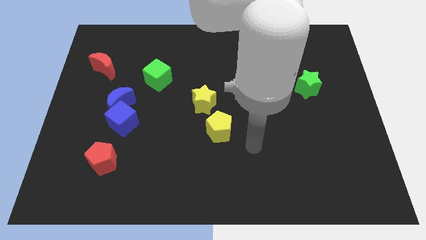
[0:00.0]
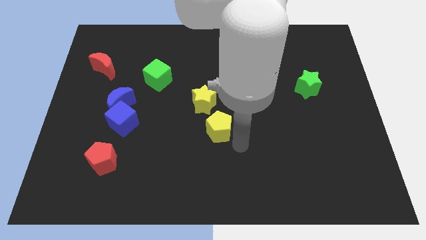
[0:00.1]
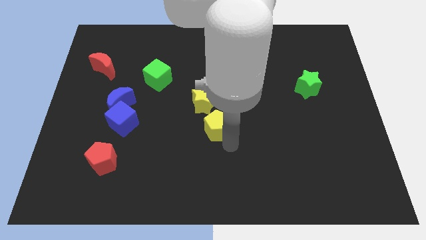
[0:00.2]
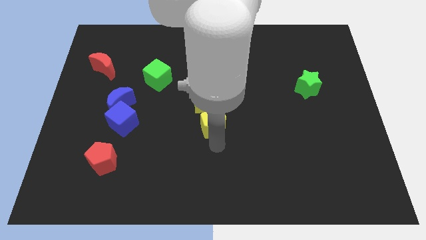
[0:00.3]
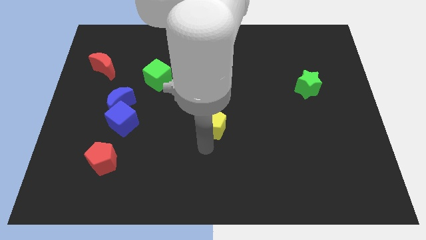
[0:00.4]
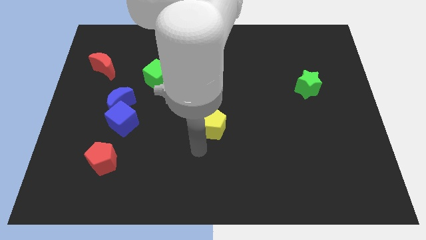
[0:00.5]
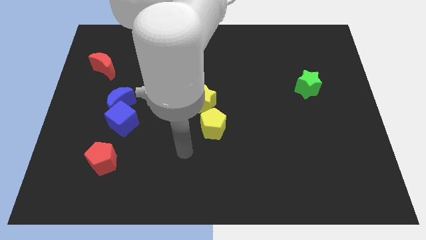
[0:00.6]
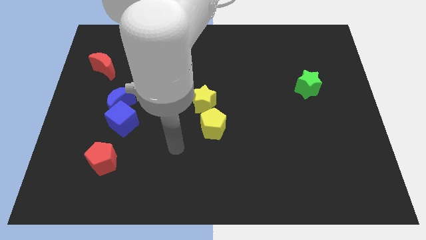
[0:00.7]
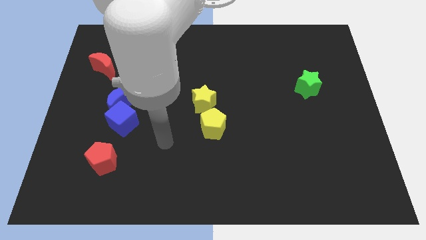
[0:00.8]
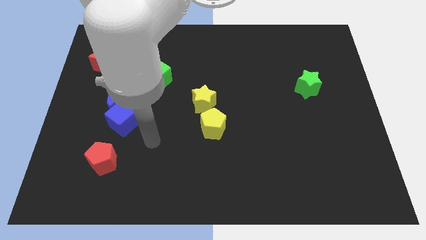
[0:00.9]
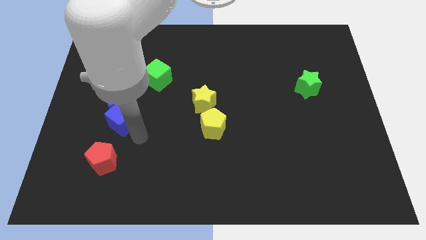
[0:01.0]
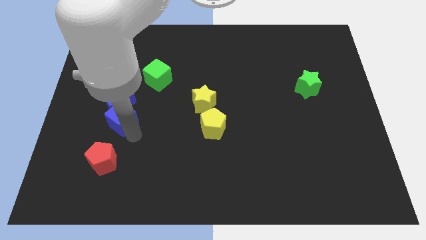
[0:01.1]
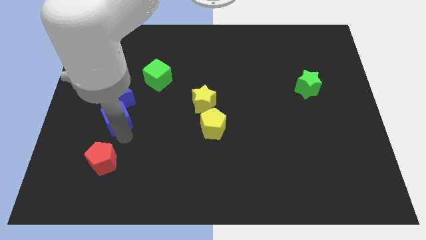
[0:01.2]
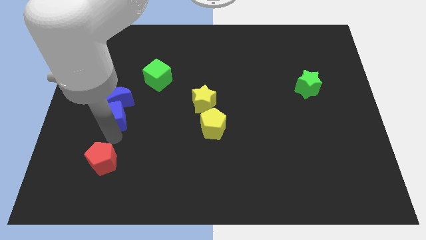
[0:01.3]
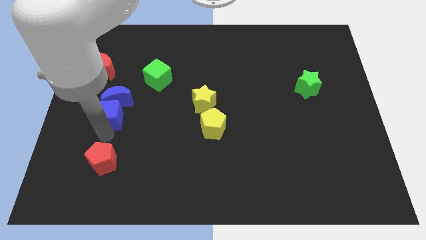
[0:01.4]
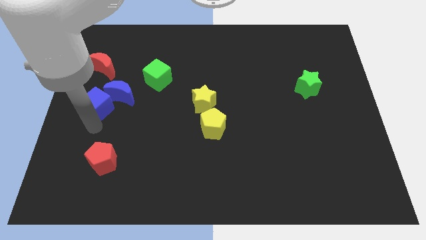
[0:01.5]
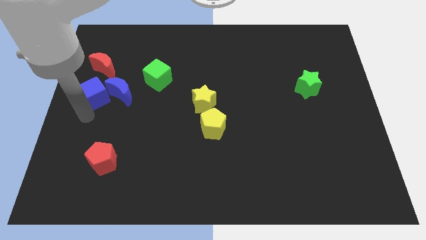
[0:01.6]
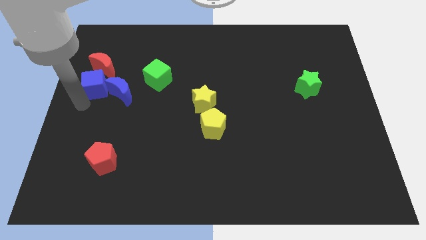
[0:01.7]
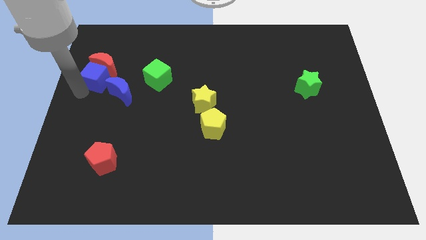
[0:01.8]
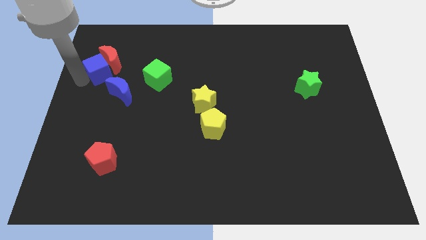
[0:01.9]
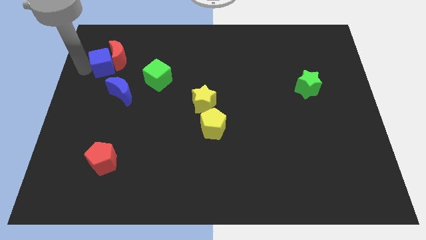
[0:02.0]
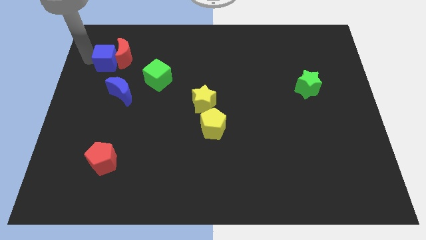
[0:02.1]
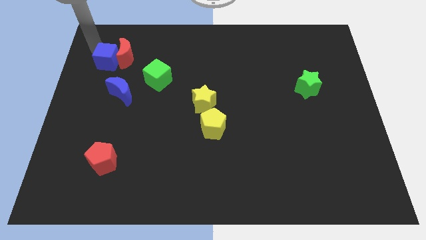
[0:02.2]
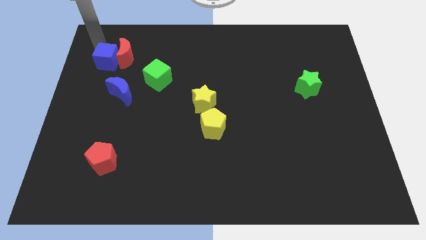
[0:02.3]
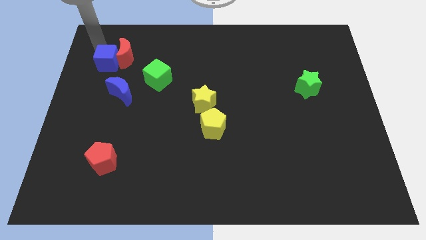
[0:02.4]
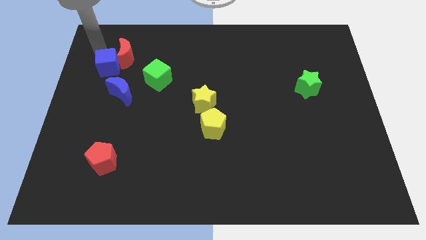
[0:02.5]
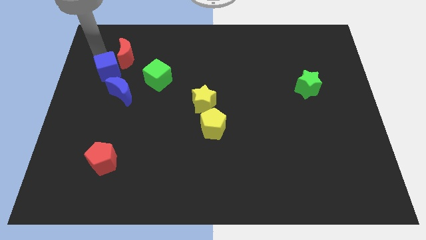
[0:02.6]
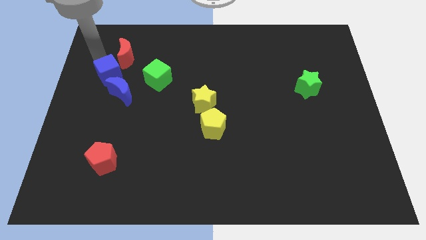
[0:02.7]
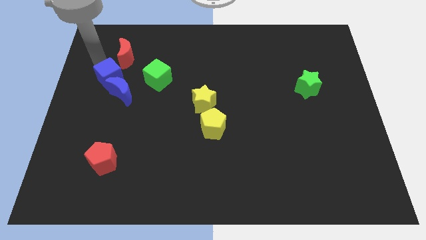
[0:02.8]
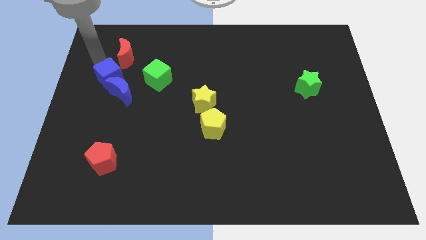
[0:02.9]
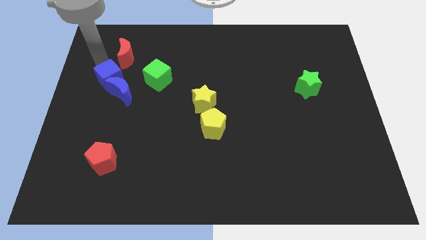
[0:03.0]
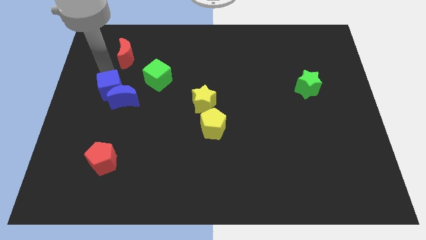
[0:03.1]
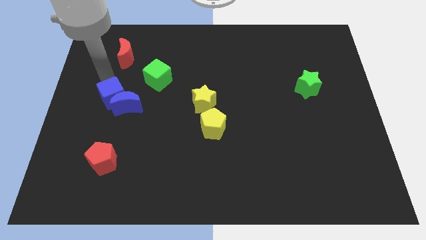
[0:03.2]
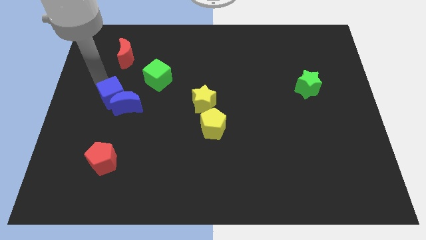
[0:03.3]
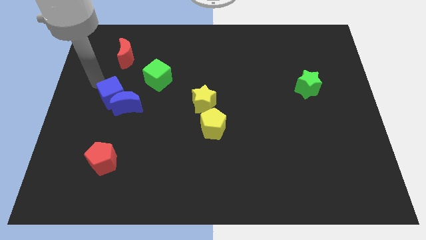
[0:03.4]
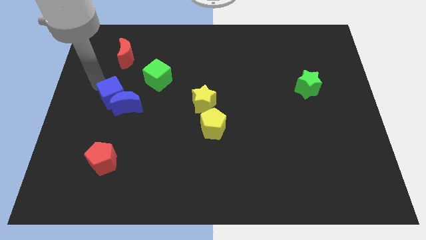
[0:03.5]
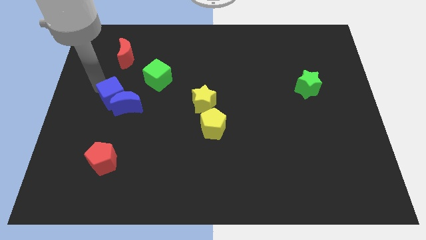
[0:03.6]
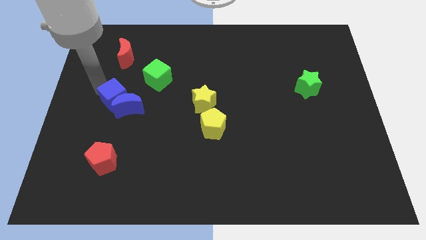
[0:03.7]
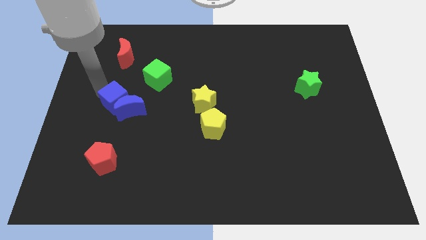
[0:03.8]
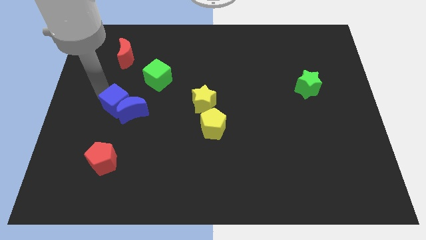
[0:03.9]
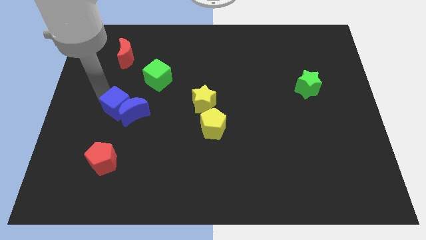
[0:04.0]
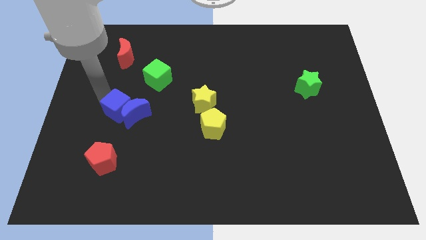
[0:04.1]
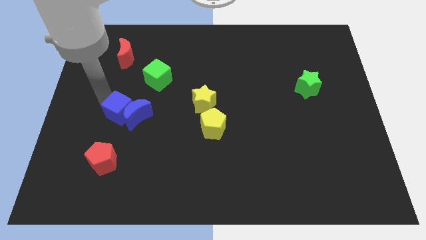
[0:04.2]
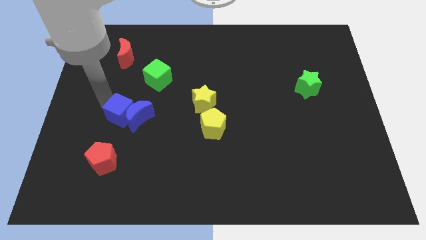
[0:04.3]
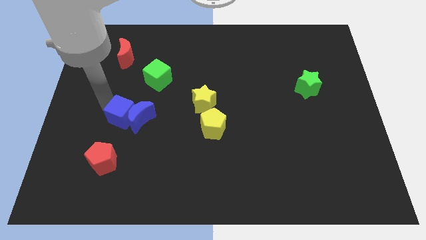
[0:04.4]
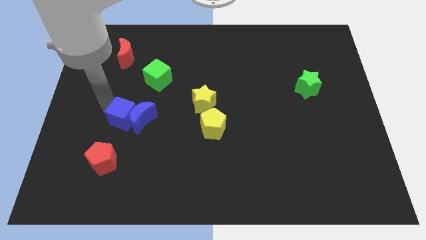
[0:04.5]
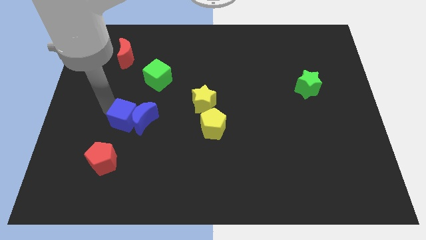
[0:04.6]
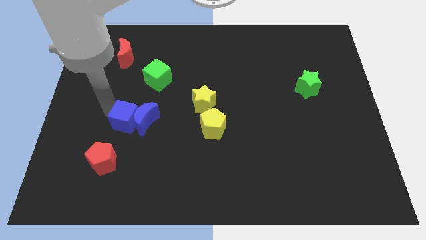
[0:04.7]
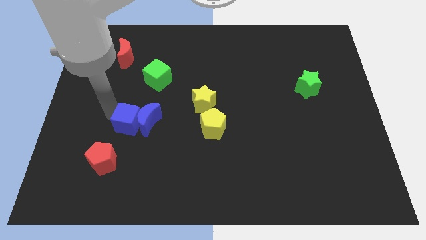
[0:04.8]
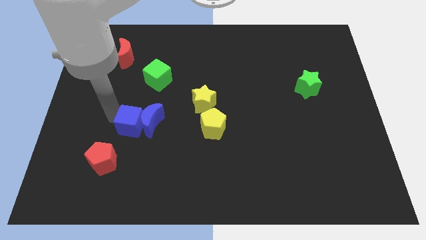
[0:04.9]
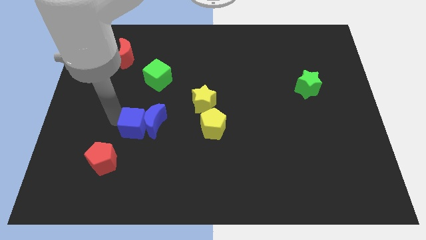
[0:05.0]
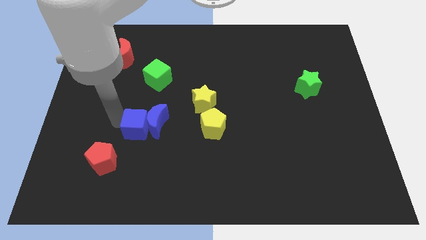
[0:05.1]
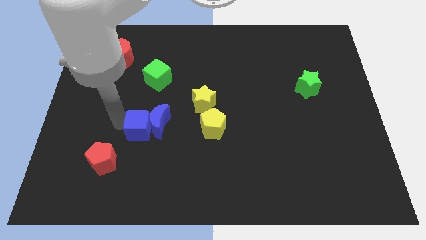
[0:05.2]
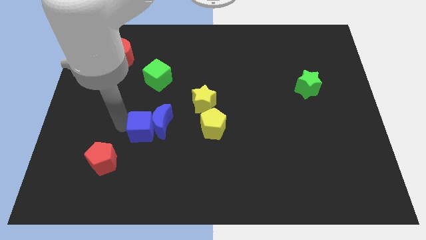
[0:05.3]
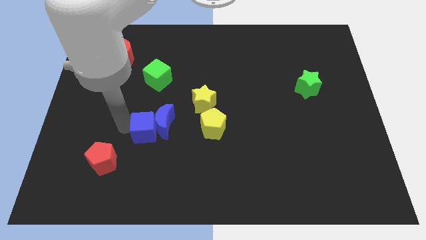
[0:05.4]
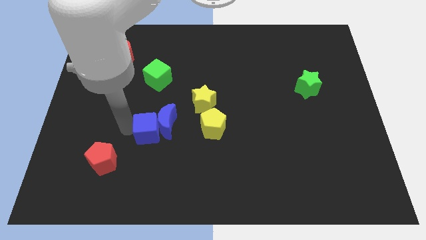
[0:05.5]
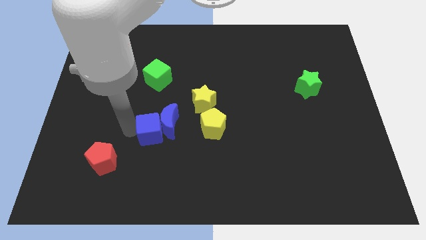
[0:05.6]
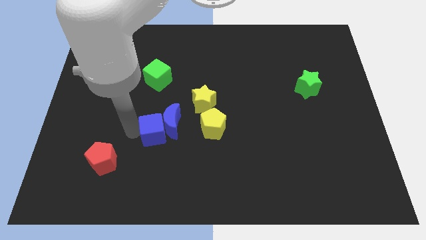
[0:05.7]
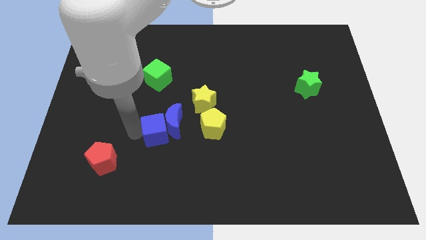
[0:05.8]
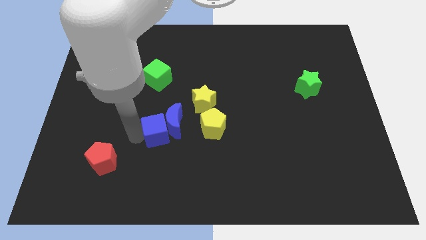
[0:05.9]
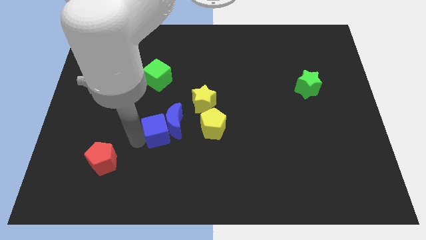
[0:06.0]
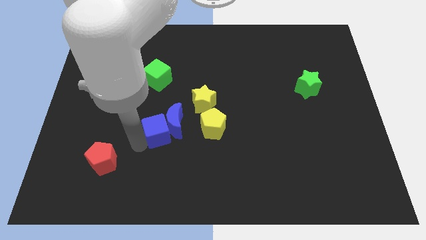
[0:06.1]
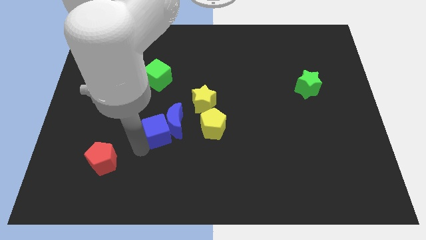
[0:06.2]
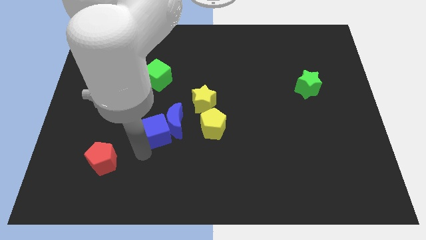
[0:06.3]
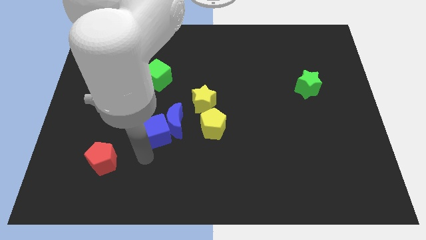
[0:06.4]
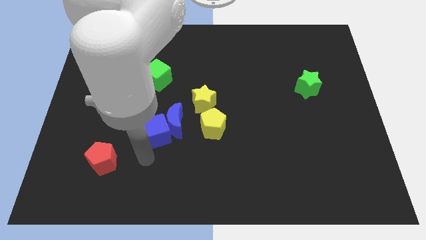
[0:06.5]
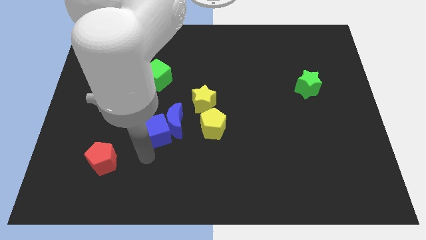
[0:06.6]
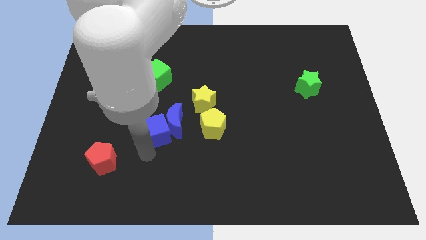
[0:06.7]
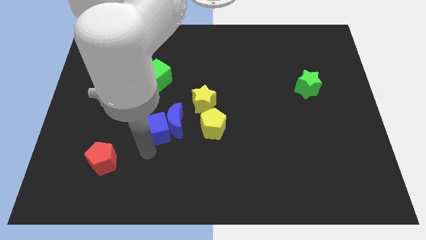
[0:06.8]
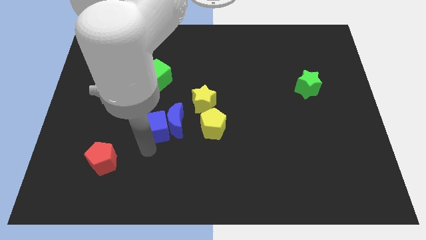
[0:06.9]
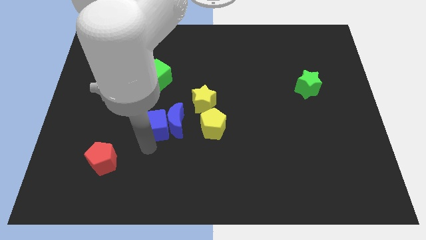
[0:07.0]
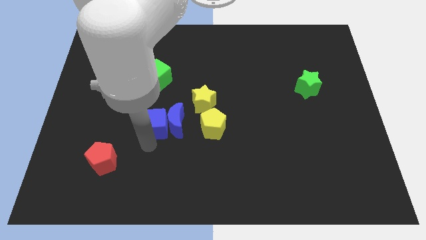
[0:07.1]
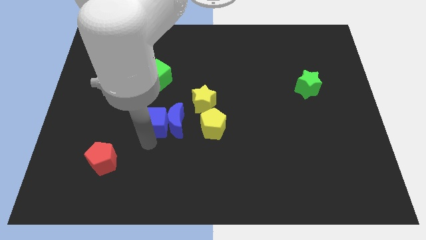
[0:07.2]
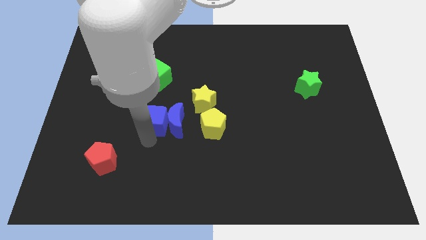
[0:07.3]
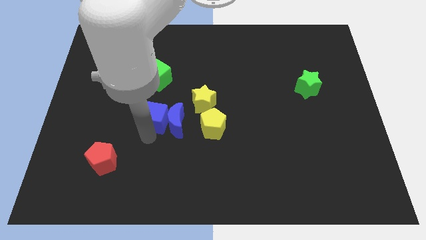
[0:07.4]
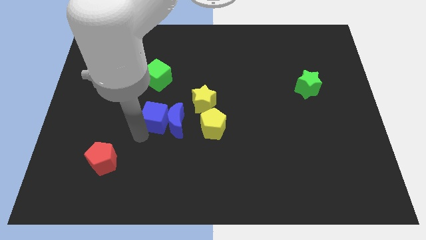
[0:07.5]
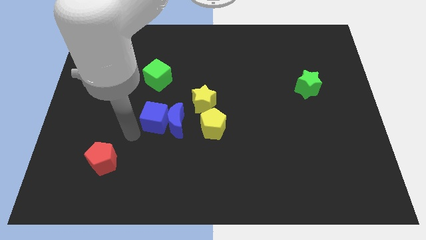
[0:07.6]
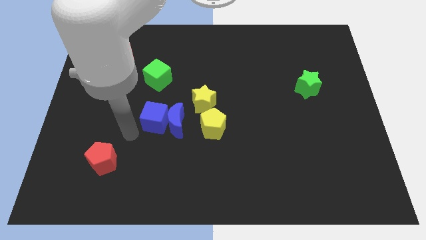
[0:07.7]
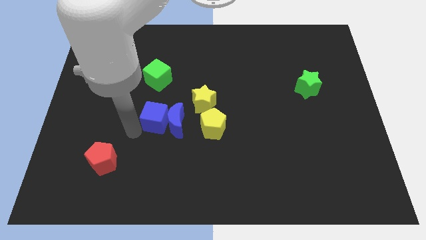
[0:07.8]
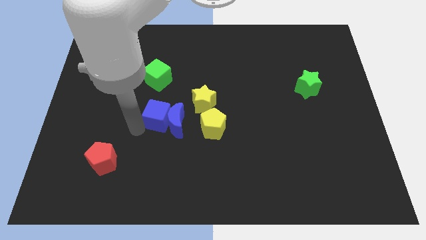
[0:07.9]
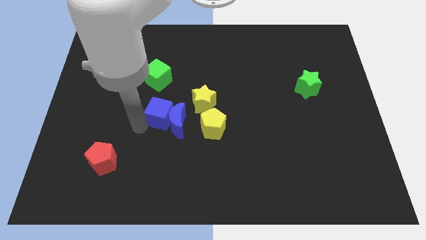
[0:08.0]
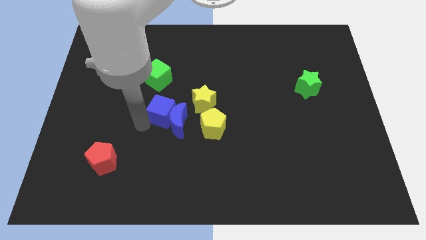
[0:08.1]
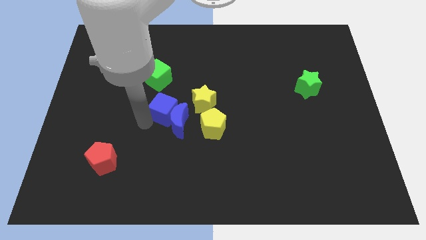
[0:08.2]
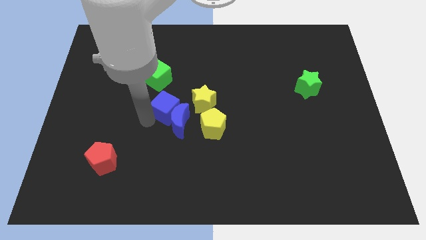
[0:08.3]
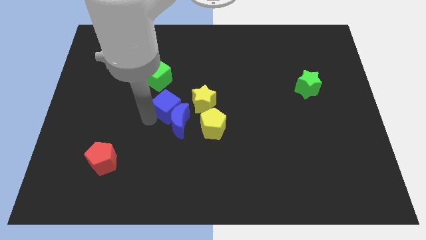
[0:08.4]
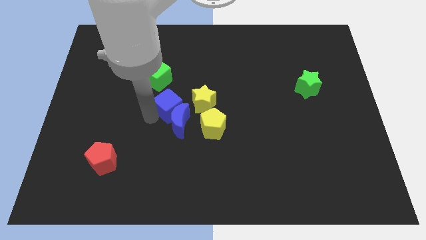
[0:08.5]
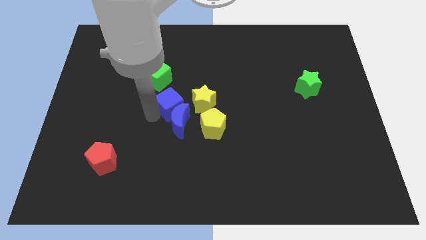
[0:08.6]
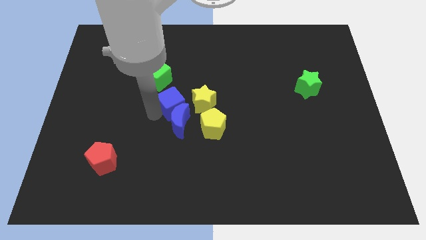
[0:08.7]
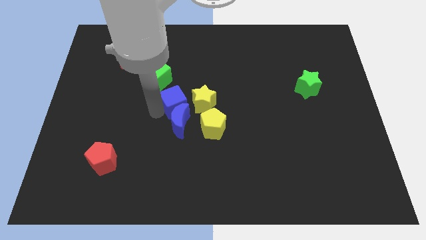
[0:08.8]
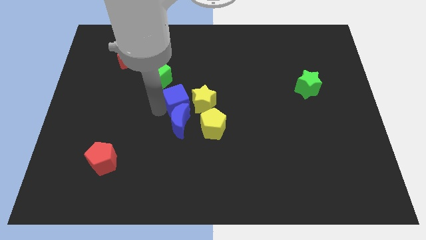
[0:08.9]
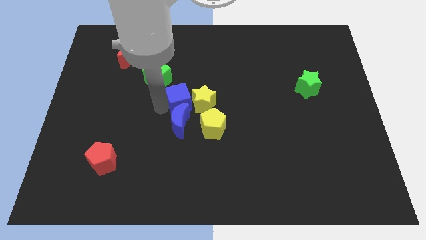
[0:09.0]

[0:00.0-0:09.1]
push the blue cube close to the yellow star
